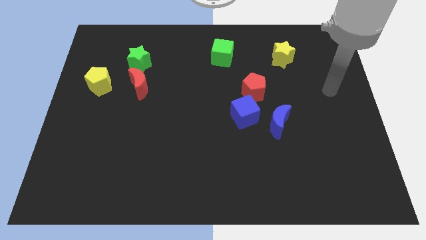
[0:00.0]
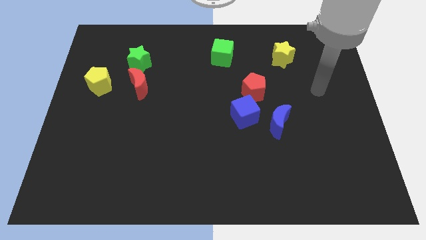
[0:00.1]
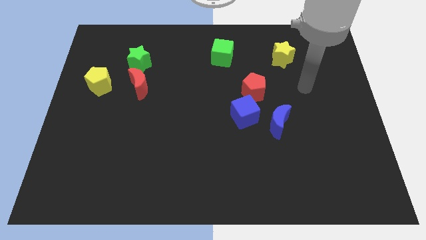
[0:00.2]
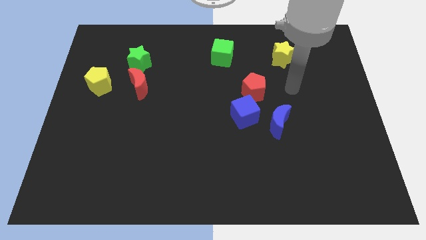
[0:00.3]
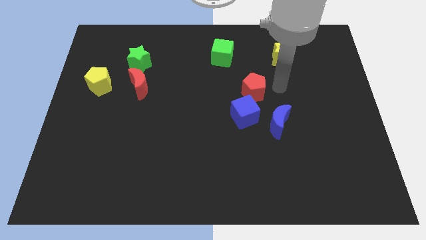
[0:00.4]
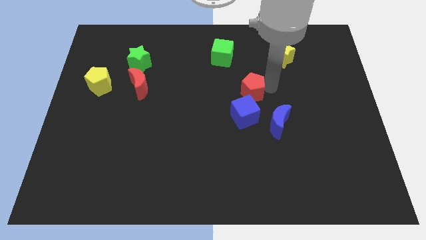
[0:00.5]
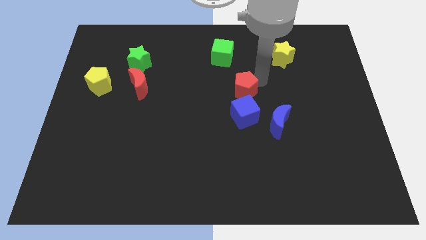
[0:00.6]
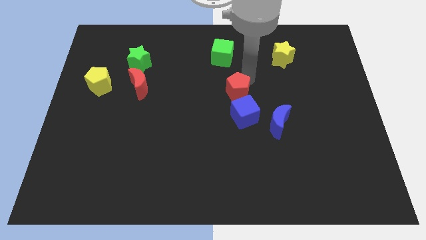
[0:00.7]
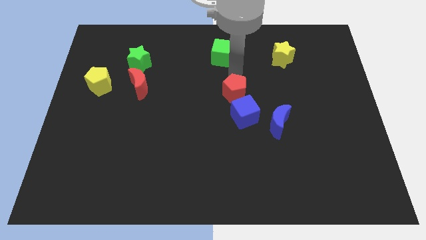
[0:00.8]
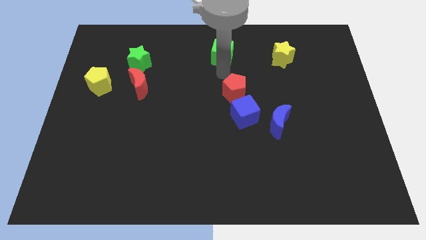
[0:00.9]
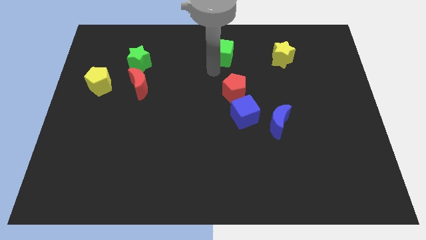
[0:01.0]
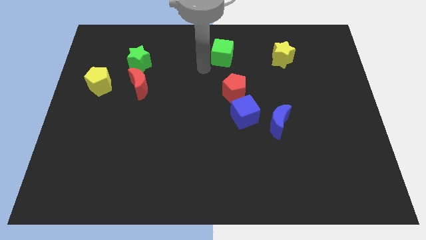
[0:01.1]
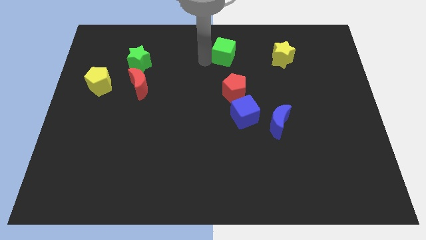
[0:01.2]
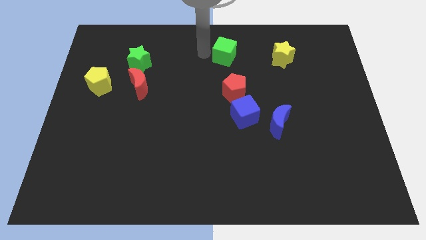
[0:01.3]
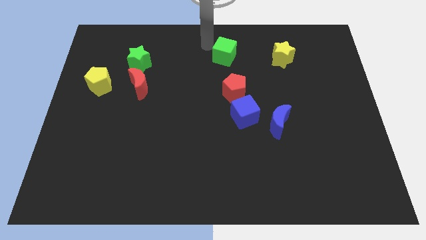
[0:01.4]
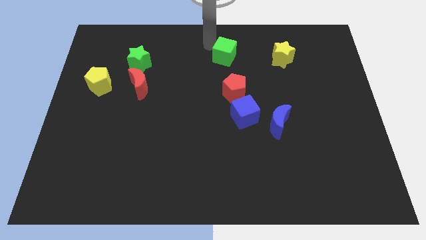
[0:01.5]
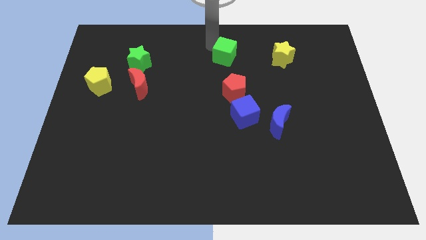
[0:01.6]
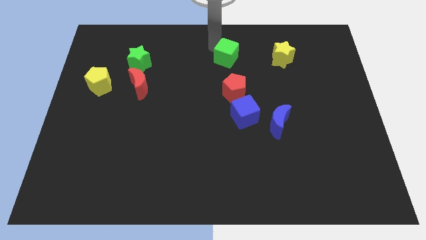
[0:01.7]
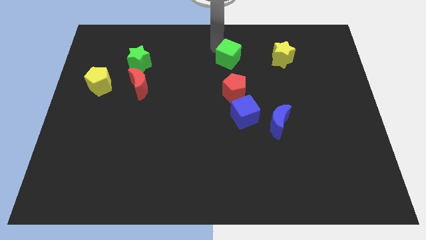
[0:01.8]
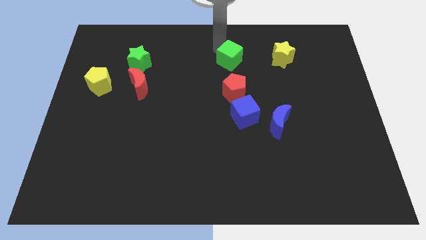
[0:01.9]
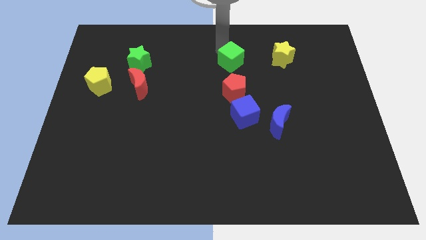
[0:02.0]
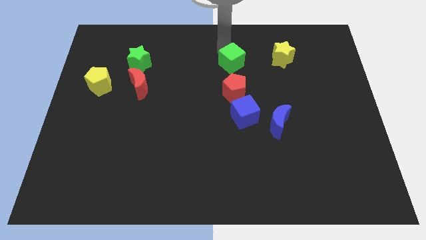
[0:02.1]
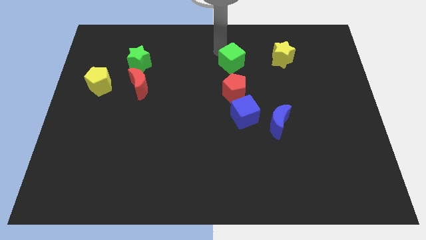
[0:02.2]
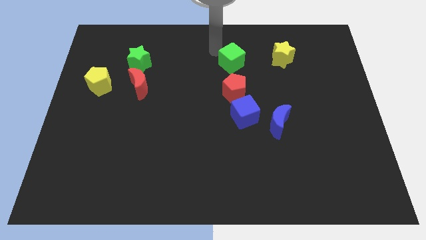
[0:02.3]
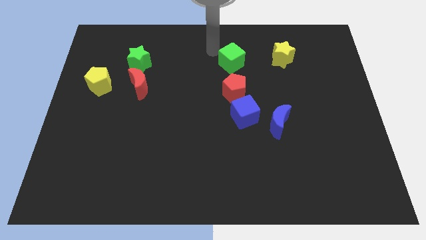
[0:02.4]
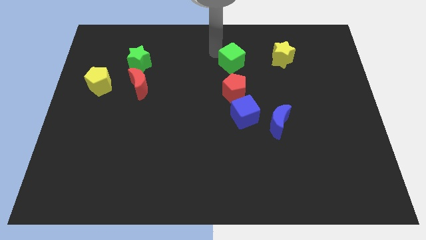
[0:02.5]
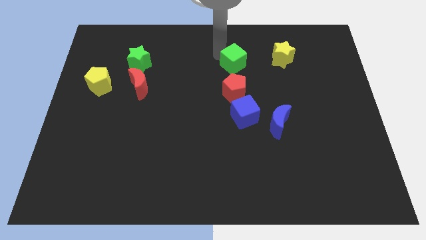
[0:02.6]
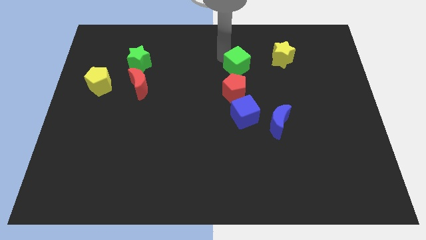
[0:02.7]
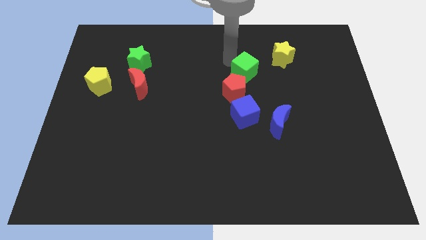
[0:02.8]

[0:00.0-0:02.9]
slightly push the green cube down and to the right

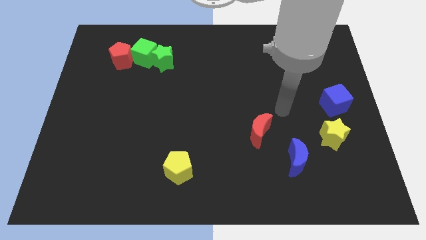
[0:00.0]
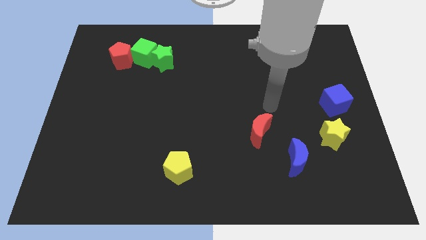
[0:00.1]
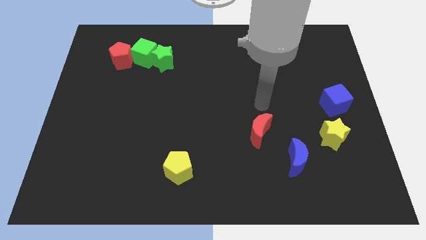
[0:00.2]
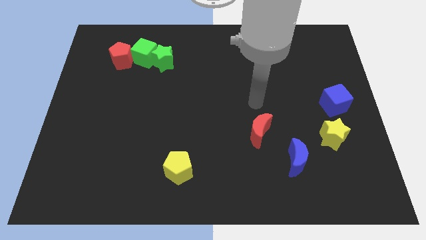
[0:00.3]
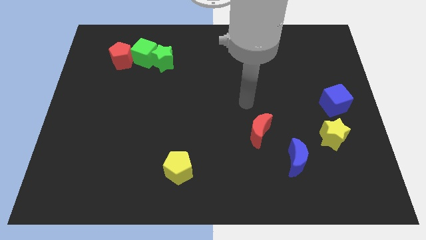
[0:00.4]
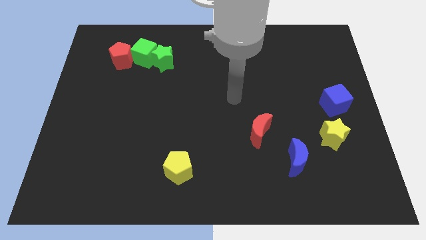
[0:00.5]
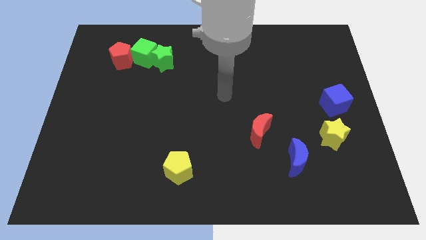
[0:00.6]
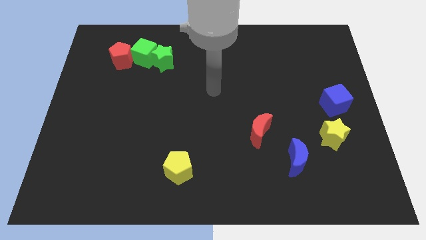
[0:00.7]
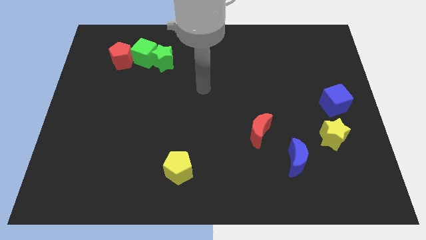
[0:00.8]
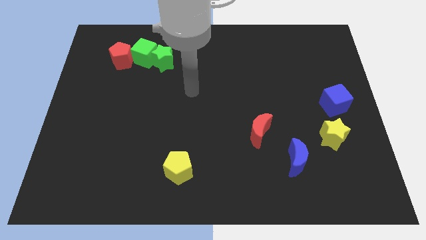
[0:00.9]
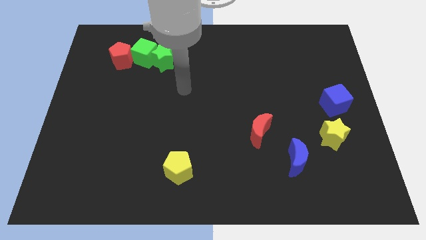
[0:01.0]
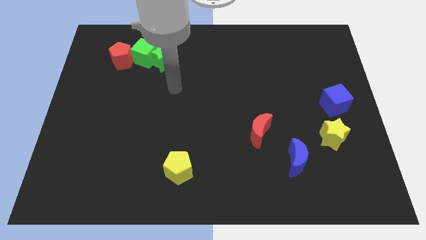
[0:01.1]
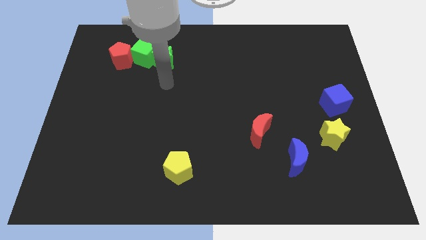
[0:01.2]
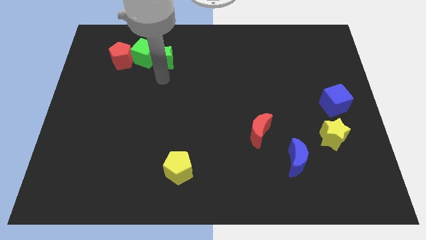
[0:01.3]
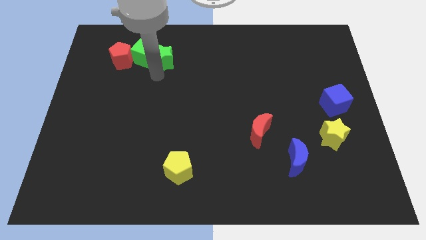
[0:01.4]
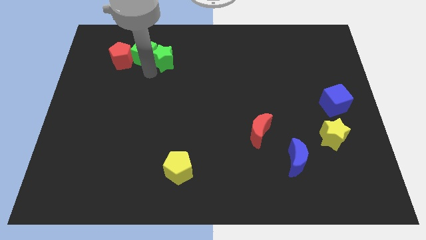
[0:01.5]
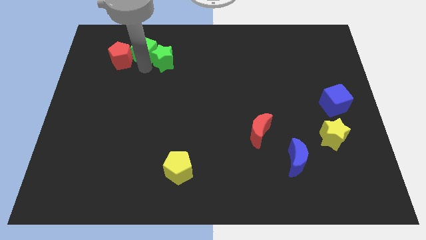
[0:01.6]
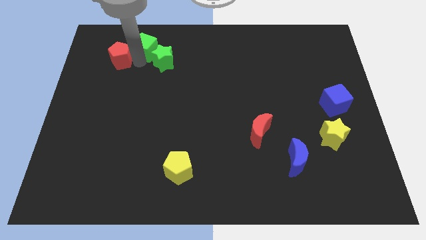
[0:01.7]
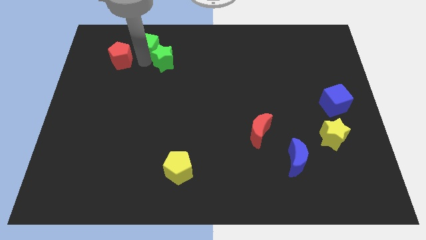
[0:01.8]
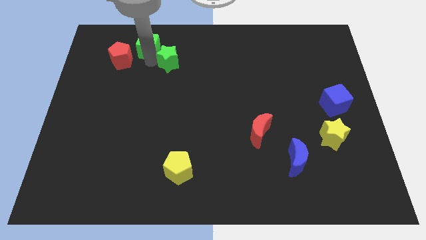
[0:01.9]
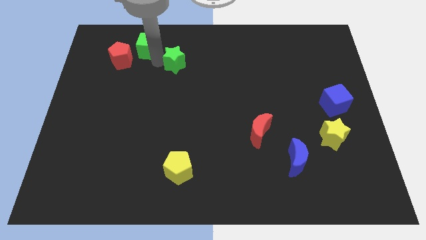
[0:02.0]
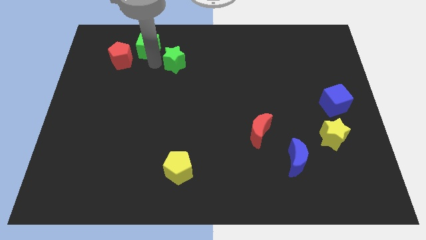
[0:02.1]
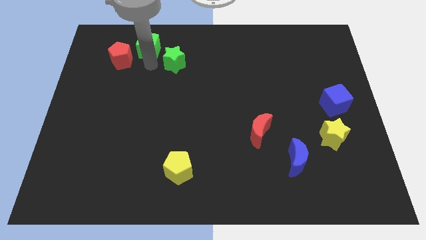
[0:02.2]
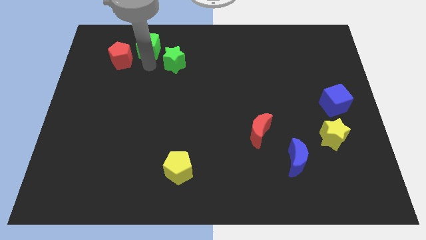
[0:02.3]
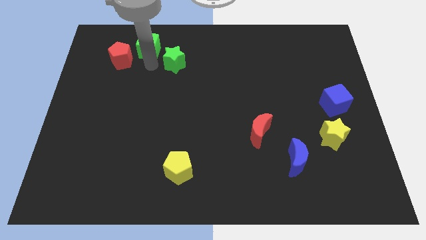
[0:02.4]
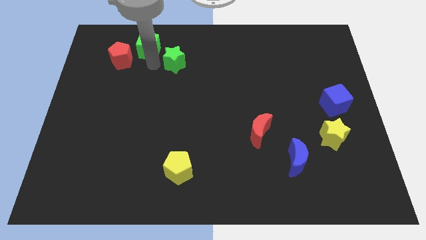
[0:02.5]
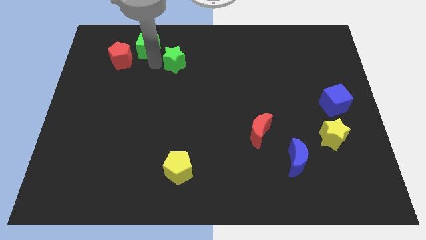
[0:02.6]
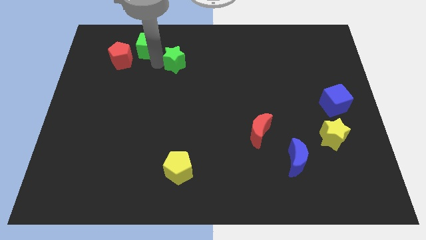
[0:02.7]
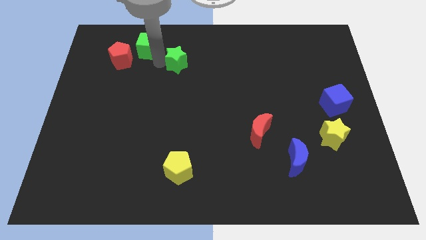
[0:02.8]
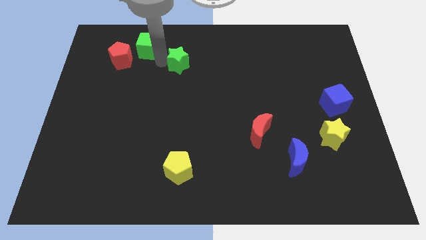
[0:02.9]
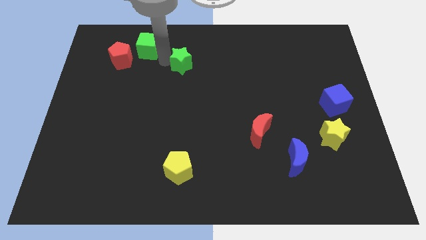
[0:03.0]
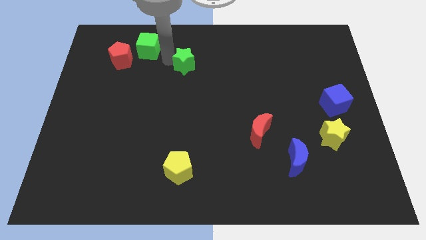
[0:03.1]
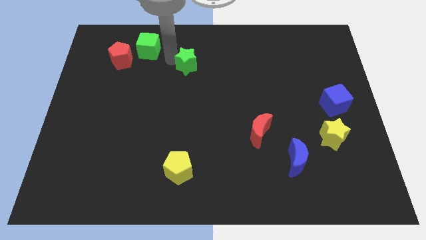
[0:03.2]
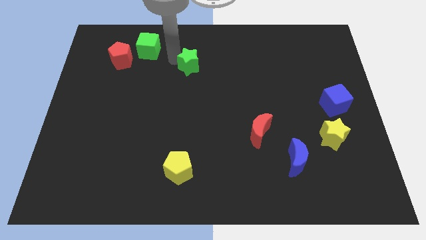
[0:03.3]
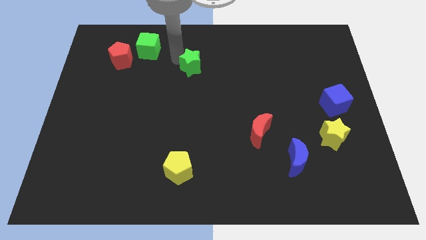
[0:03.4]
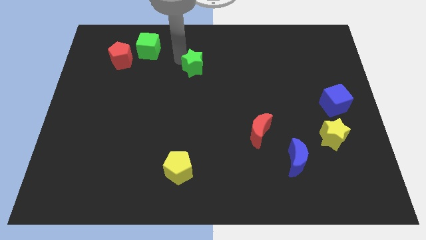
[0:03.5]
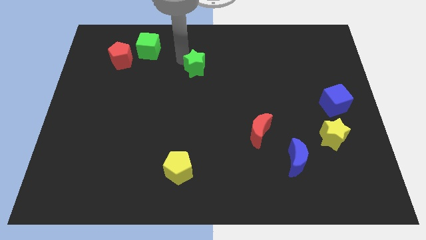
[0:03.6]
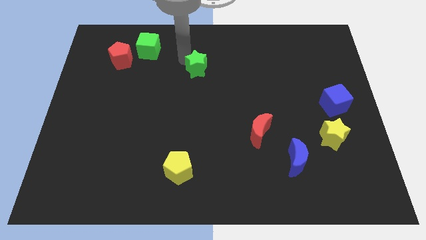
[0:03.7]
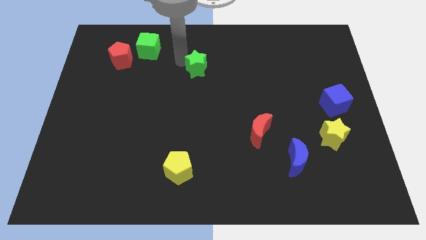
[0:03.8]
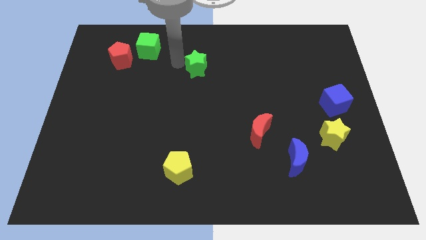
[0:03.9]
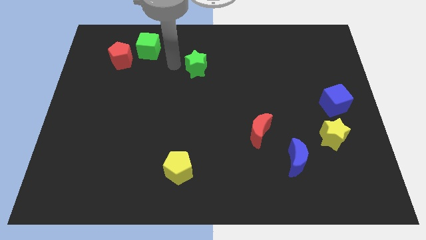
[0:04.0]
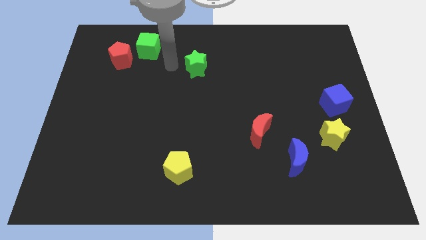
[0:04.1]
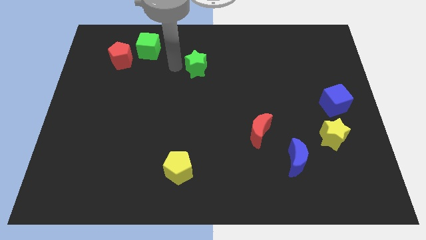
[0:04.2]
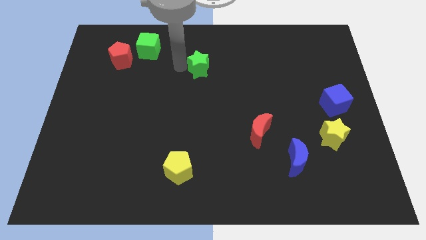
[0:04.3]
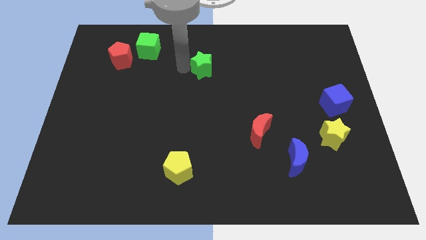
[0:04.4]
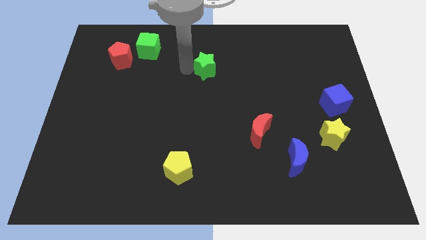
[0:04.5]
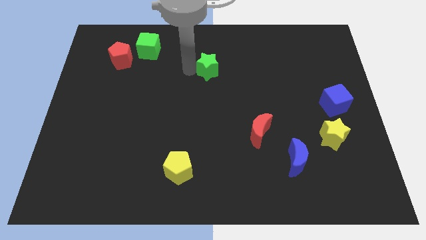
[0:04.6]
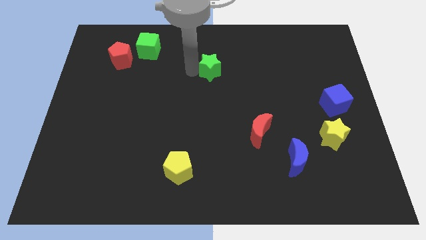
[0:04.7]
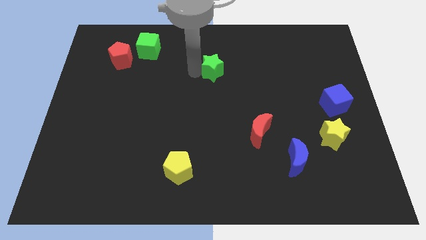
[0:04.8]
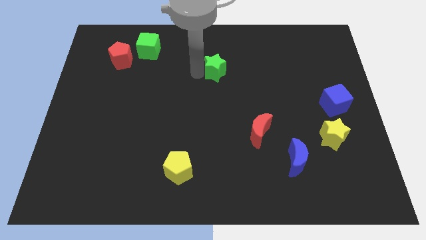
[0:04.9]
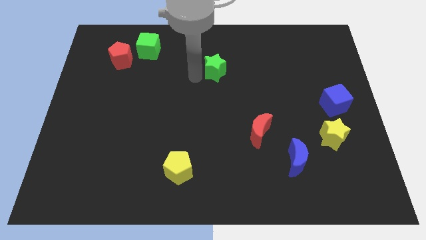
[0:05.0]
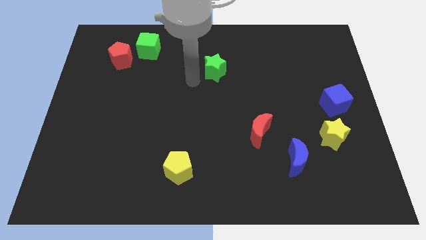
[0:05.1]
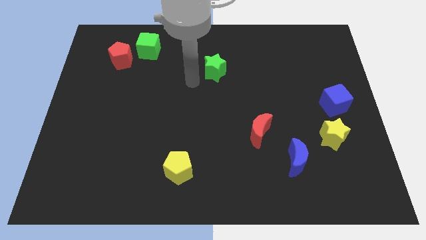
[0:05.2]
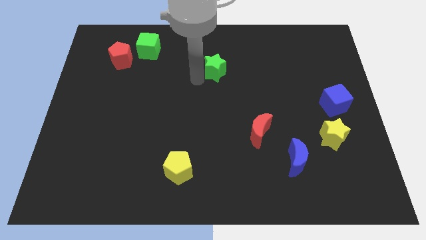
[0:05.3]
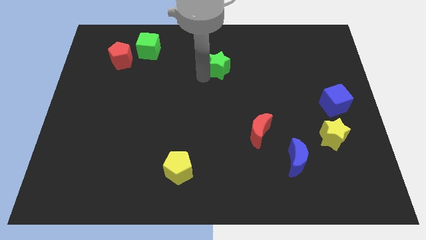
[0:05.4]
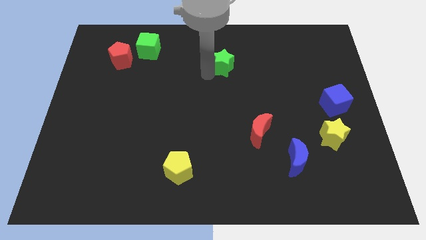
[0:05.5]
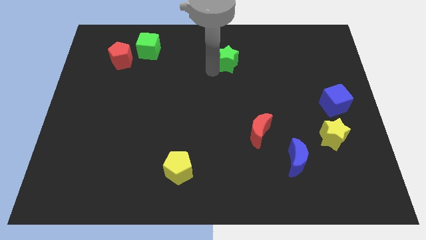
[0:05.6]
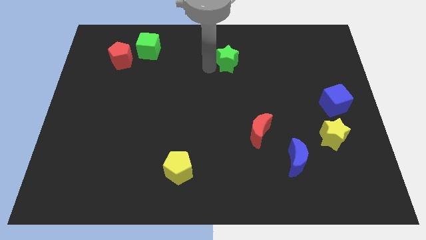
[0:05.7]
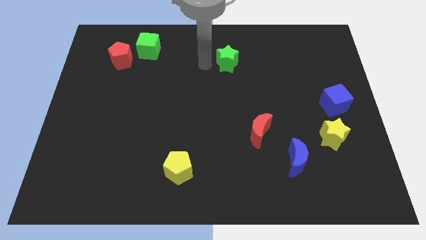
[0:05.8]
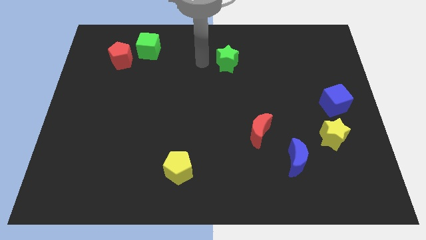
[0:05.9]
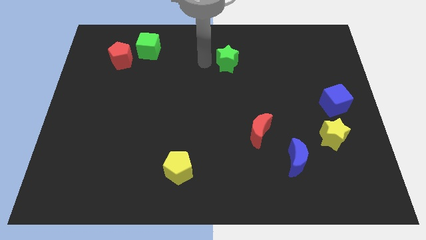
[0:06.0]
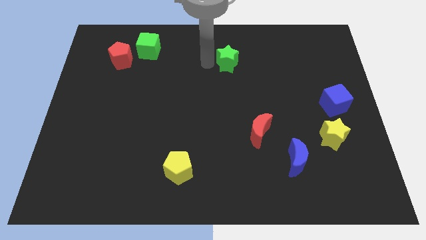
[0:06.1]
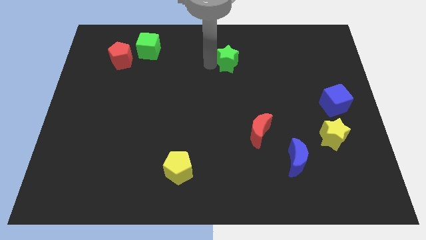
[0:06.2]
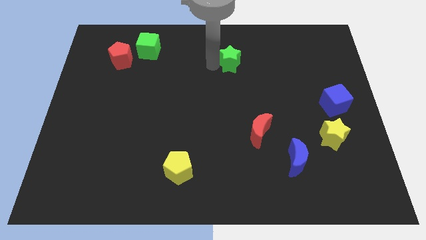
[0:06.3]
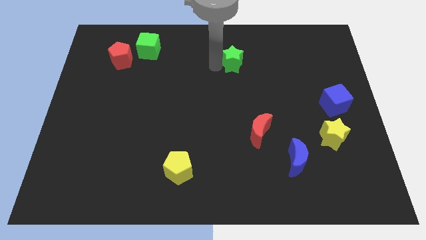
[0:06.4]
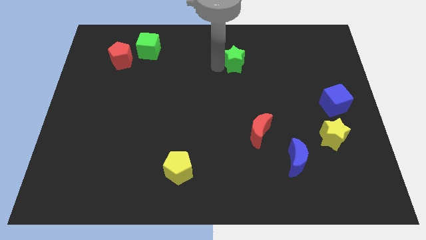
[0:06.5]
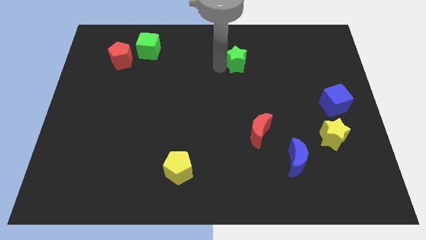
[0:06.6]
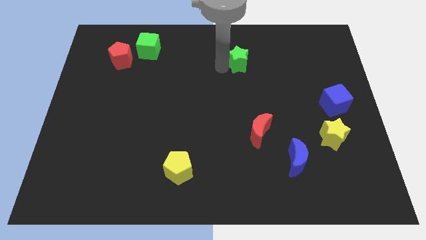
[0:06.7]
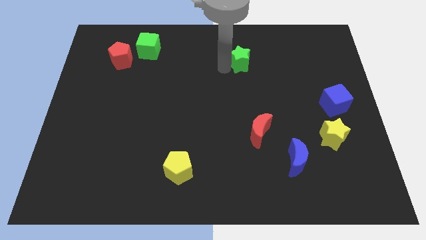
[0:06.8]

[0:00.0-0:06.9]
move the green star to the right
